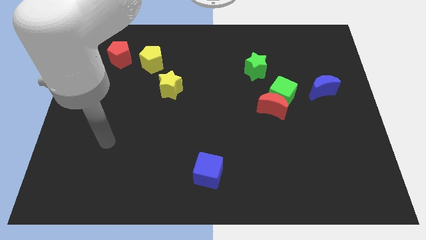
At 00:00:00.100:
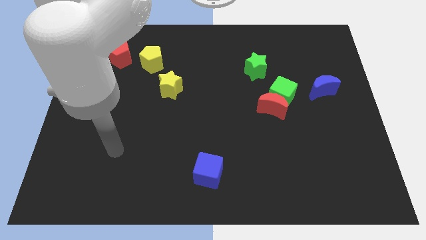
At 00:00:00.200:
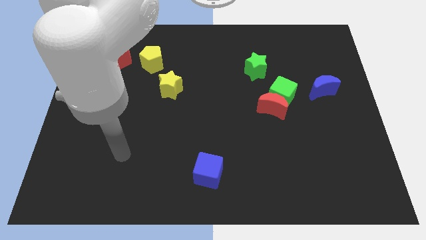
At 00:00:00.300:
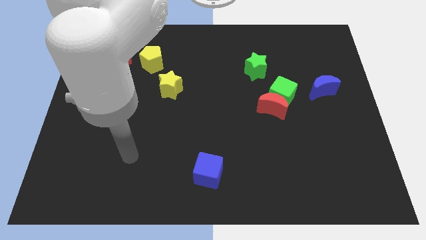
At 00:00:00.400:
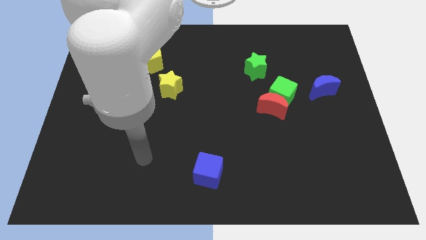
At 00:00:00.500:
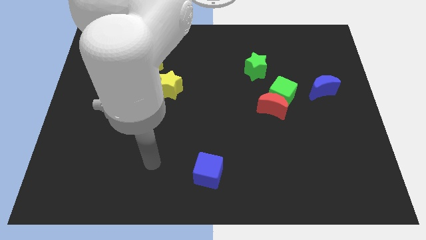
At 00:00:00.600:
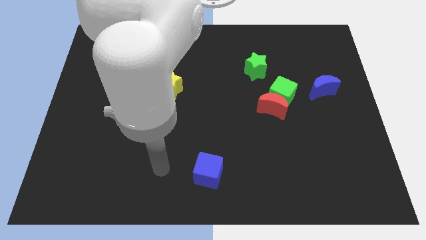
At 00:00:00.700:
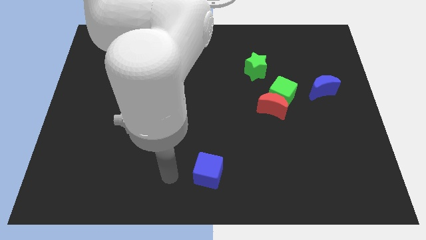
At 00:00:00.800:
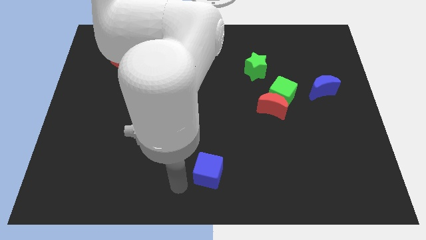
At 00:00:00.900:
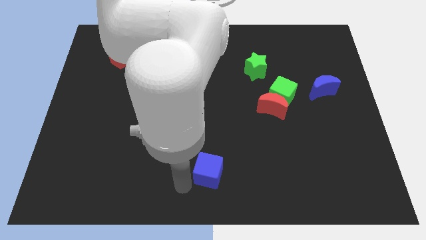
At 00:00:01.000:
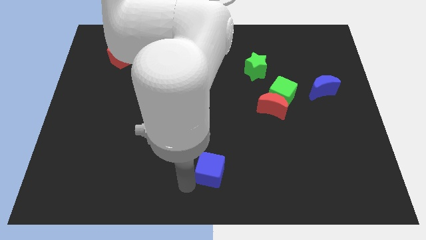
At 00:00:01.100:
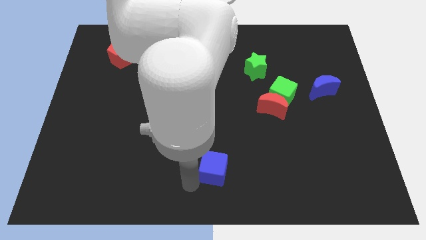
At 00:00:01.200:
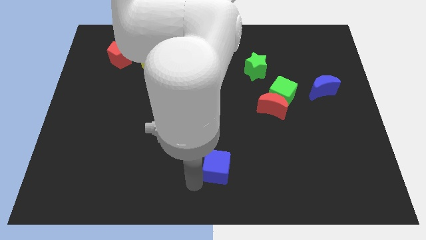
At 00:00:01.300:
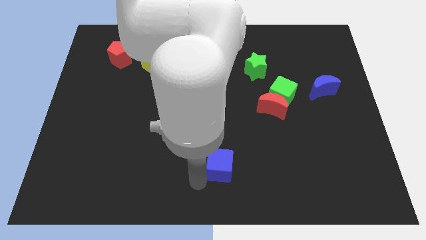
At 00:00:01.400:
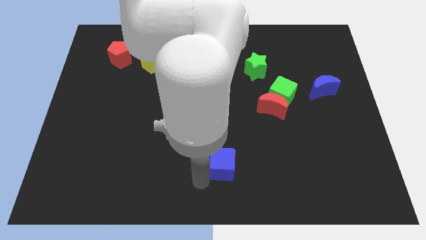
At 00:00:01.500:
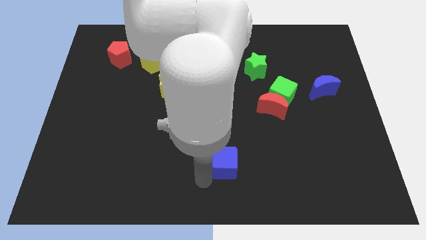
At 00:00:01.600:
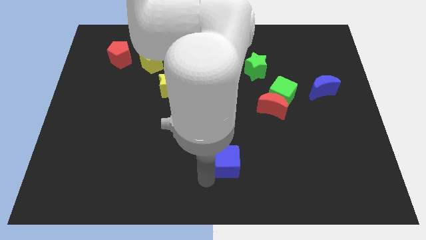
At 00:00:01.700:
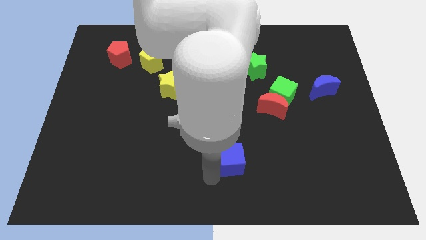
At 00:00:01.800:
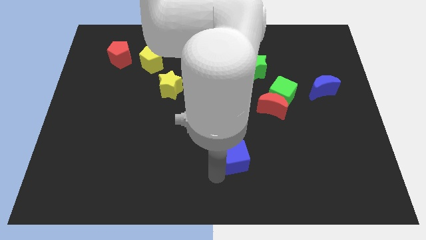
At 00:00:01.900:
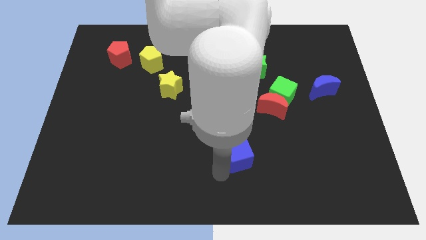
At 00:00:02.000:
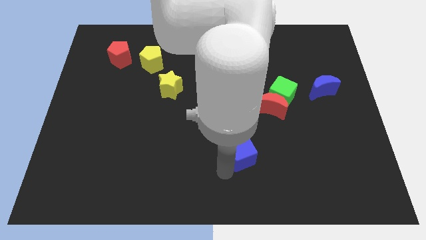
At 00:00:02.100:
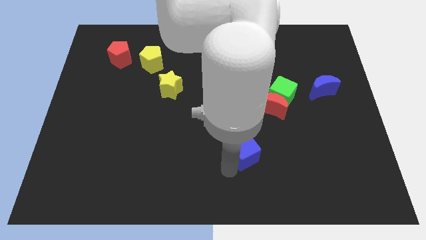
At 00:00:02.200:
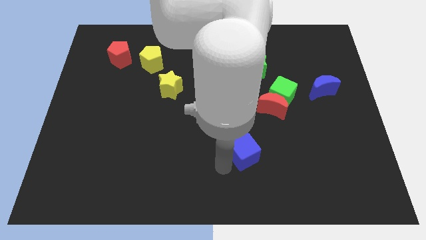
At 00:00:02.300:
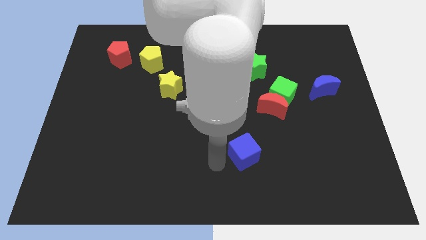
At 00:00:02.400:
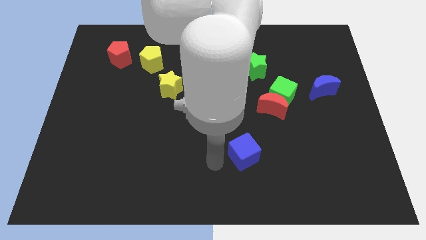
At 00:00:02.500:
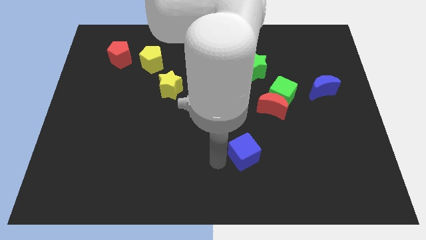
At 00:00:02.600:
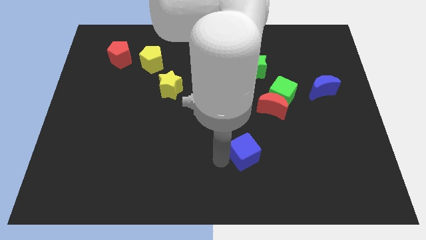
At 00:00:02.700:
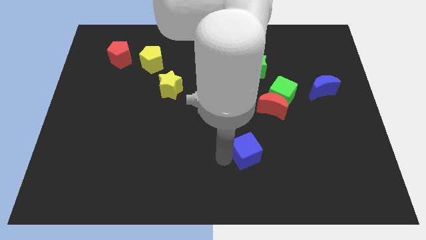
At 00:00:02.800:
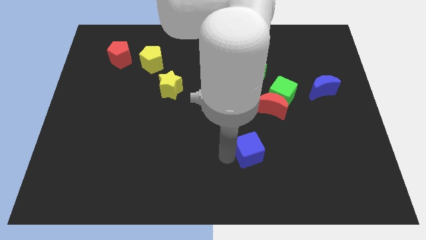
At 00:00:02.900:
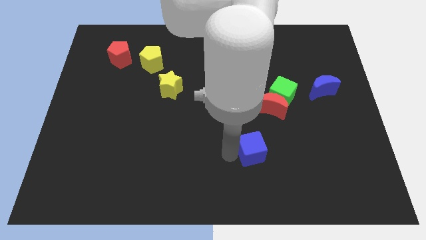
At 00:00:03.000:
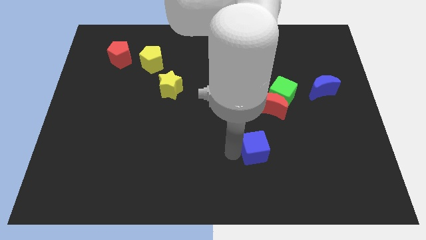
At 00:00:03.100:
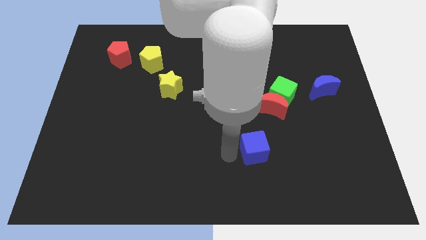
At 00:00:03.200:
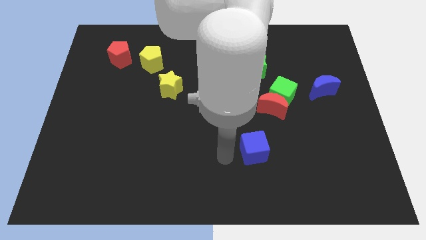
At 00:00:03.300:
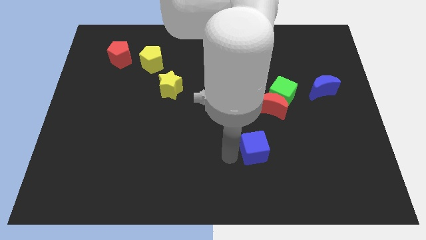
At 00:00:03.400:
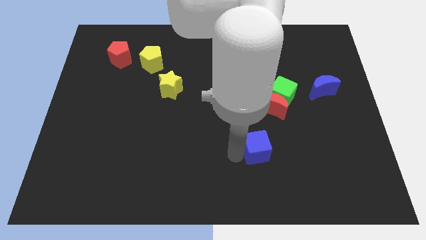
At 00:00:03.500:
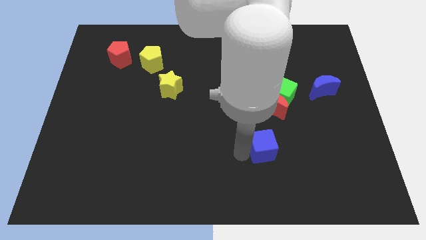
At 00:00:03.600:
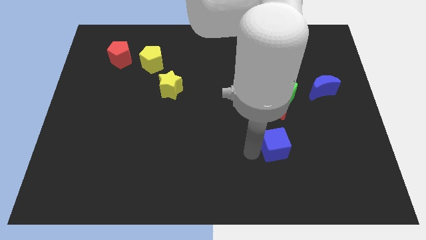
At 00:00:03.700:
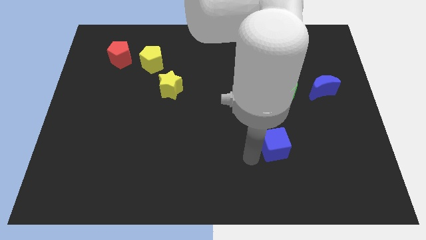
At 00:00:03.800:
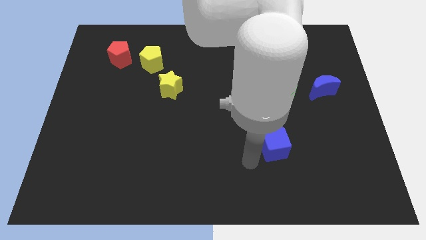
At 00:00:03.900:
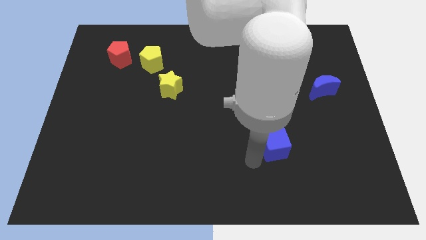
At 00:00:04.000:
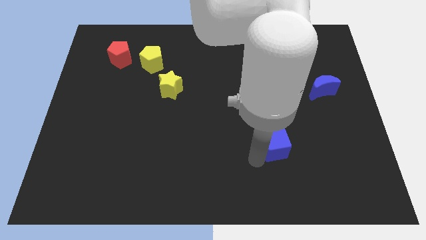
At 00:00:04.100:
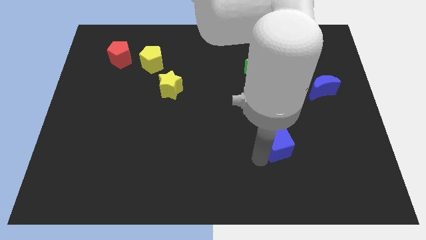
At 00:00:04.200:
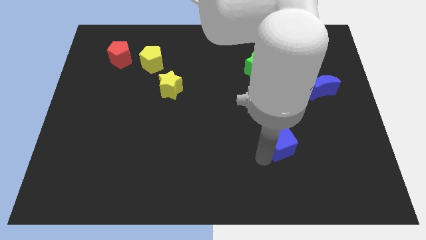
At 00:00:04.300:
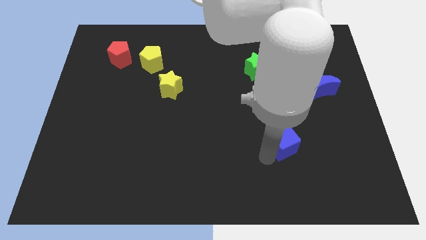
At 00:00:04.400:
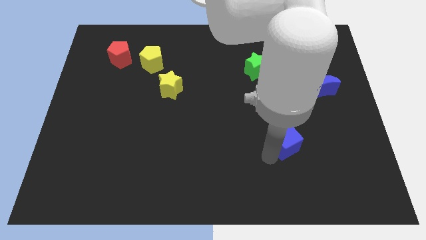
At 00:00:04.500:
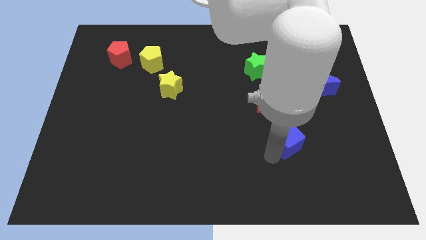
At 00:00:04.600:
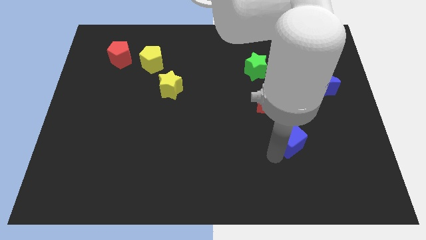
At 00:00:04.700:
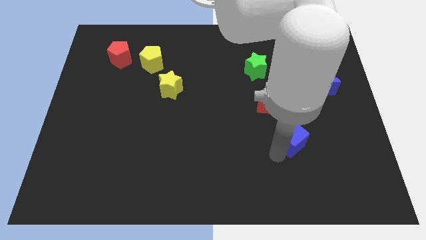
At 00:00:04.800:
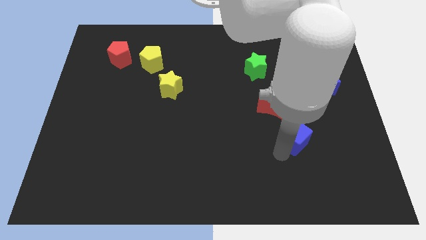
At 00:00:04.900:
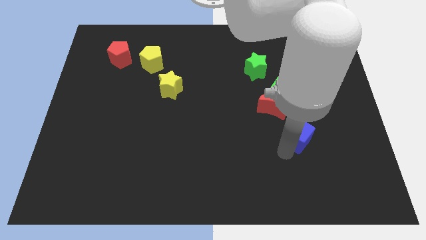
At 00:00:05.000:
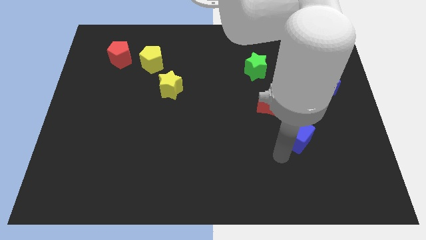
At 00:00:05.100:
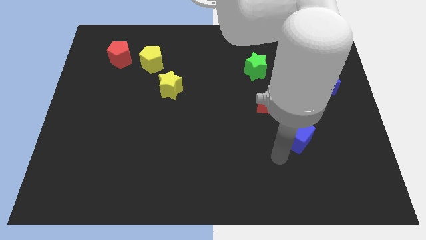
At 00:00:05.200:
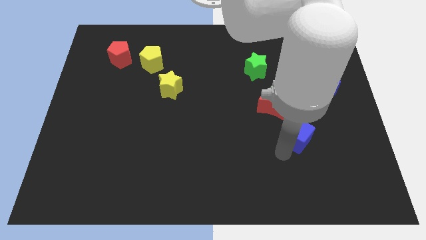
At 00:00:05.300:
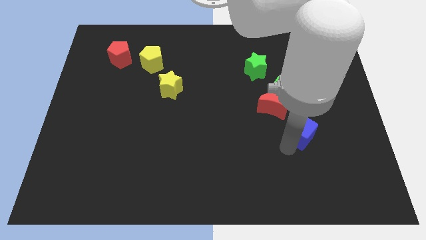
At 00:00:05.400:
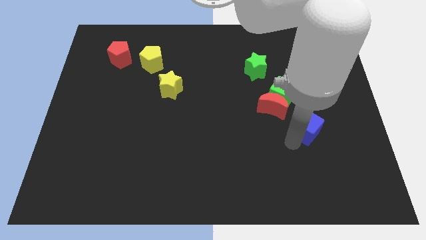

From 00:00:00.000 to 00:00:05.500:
push the blue cube up and to the right

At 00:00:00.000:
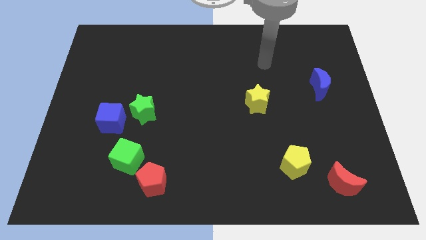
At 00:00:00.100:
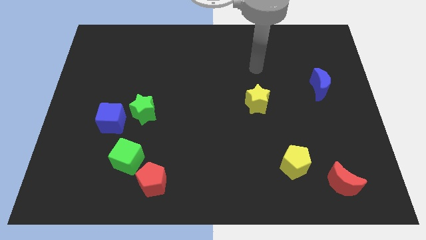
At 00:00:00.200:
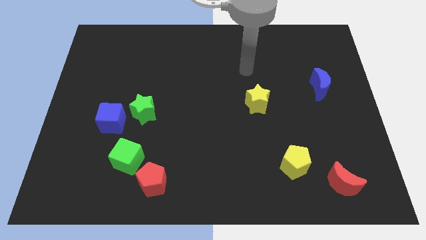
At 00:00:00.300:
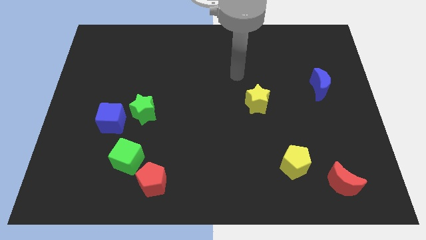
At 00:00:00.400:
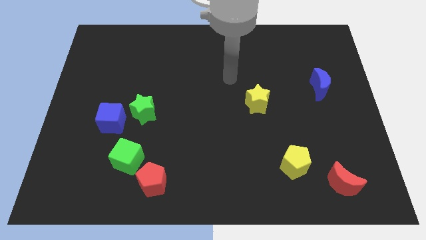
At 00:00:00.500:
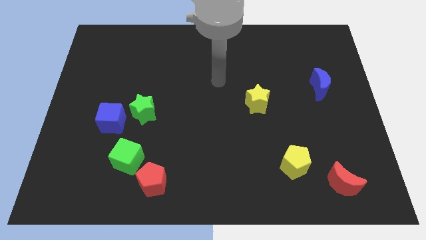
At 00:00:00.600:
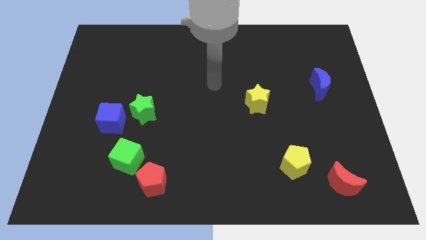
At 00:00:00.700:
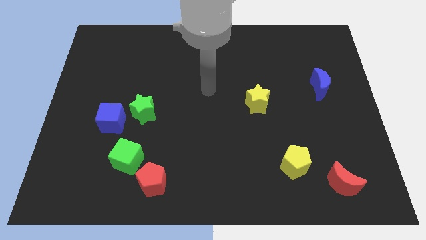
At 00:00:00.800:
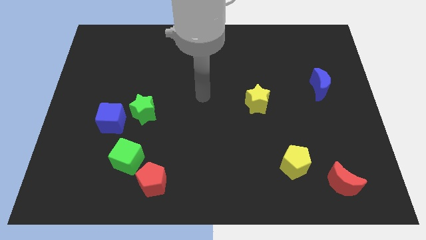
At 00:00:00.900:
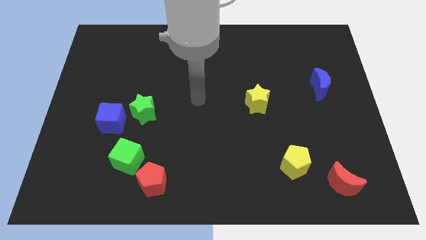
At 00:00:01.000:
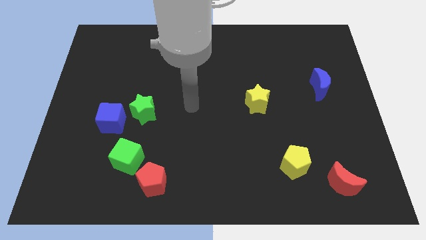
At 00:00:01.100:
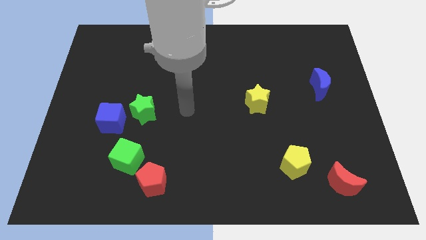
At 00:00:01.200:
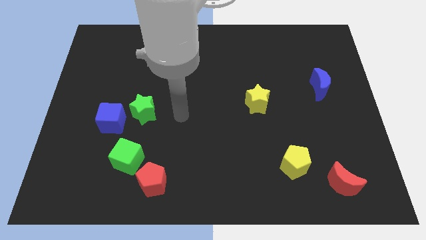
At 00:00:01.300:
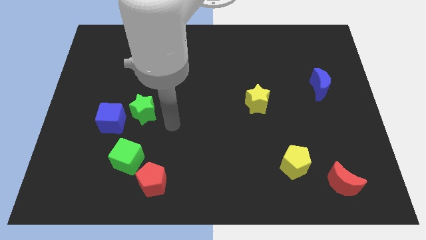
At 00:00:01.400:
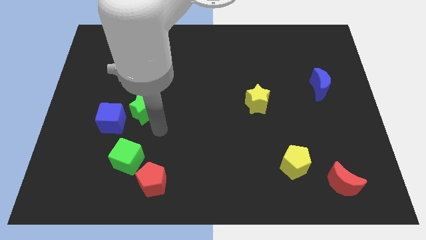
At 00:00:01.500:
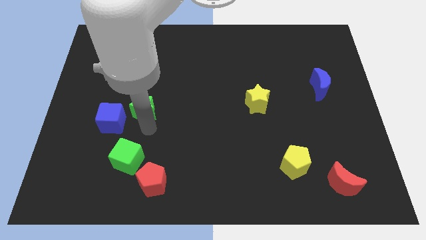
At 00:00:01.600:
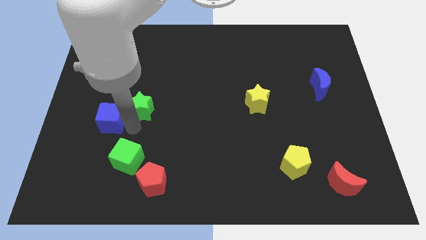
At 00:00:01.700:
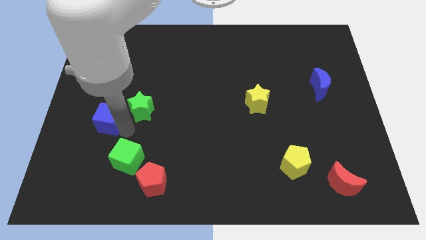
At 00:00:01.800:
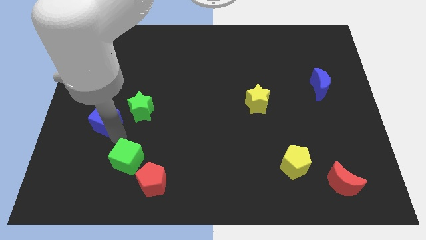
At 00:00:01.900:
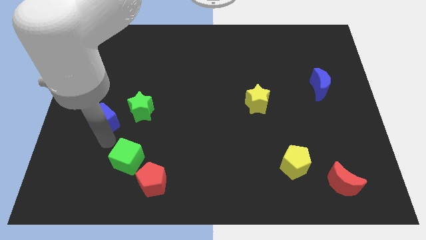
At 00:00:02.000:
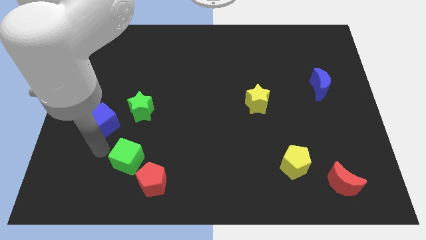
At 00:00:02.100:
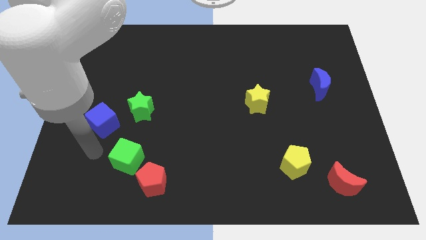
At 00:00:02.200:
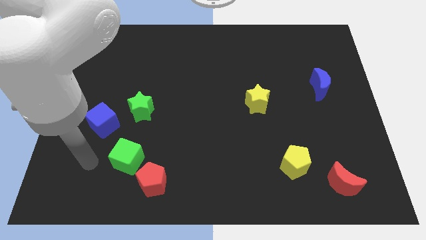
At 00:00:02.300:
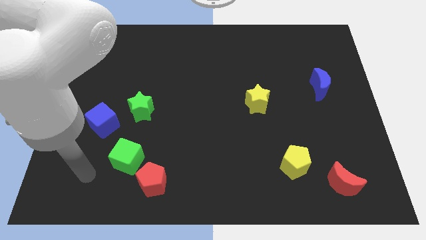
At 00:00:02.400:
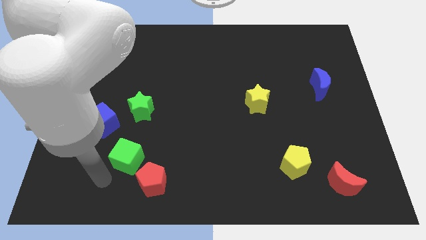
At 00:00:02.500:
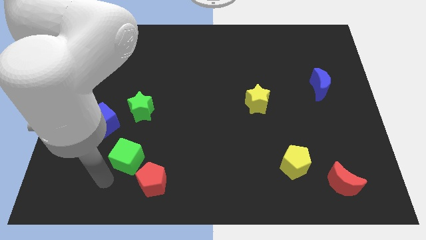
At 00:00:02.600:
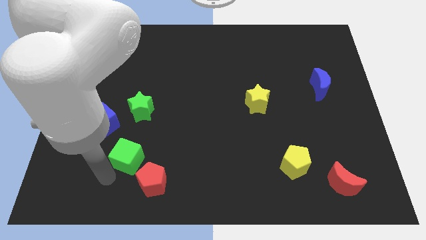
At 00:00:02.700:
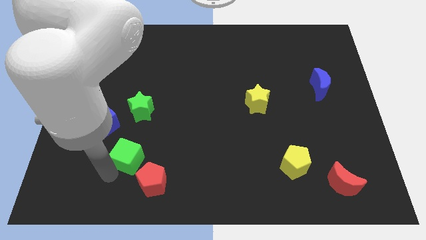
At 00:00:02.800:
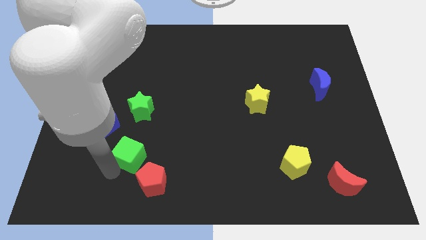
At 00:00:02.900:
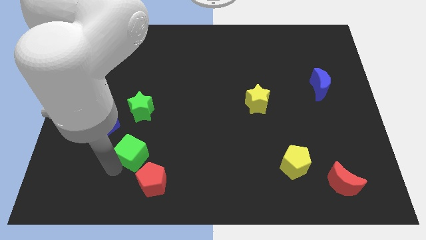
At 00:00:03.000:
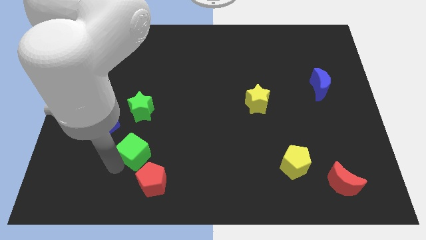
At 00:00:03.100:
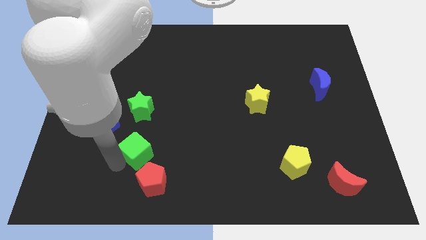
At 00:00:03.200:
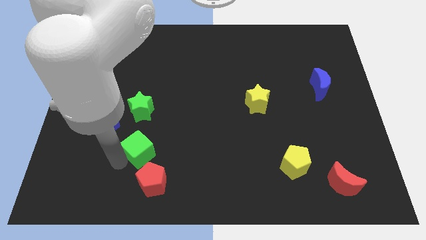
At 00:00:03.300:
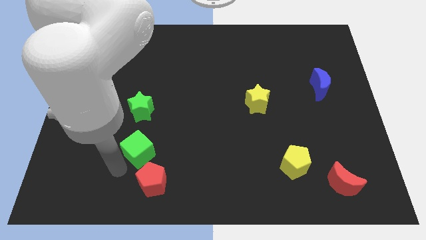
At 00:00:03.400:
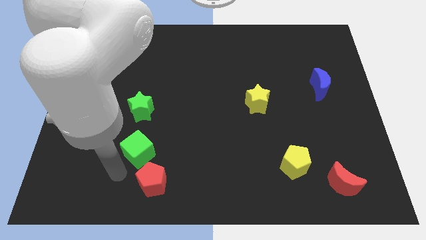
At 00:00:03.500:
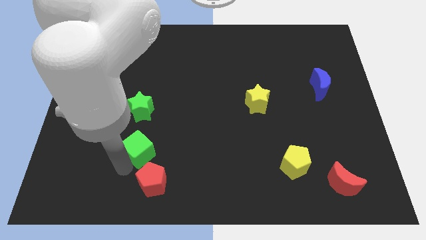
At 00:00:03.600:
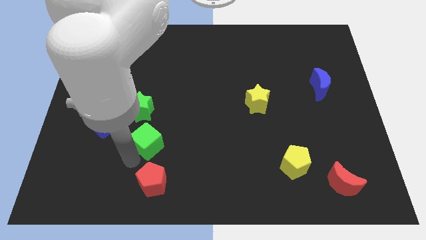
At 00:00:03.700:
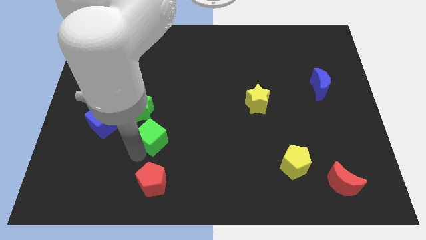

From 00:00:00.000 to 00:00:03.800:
push the green cube slightly upwards and then to the right
